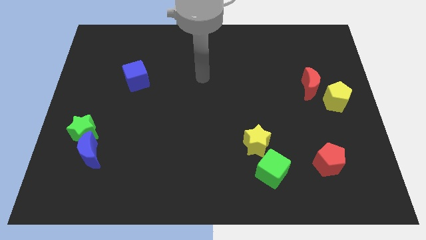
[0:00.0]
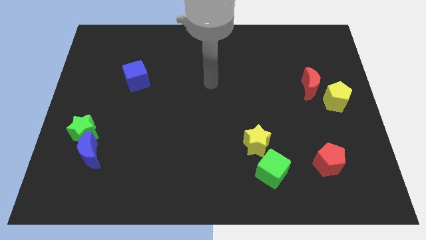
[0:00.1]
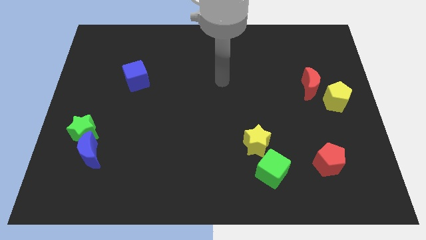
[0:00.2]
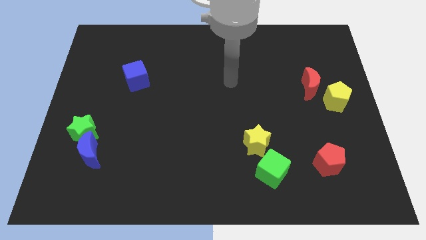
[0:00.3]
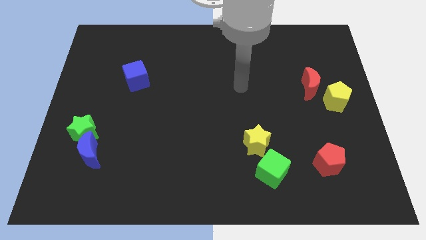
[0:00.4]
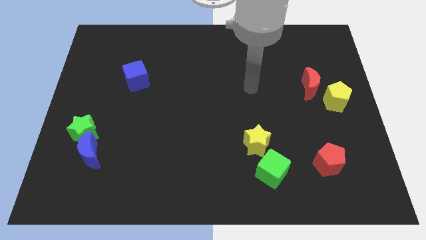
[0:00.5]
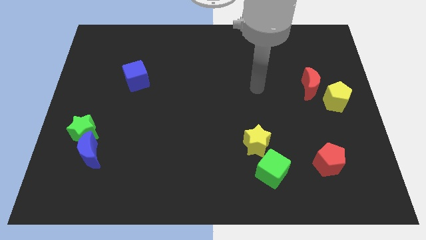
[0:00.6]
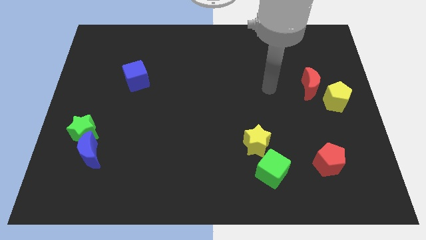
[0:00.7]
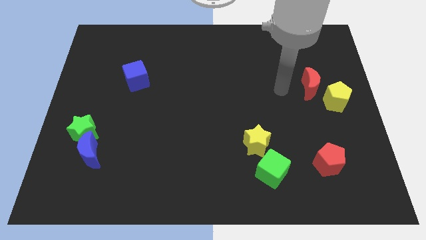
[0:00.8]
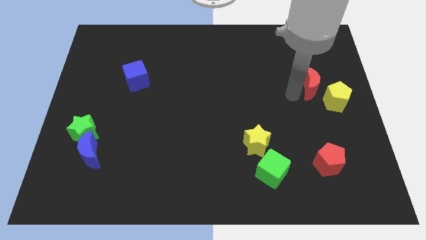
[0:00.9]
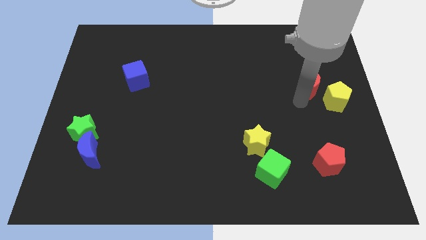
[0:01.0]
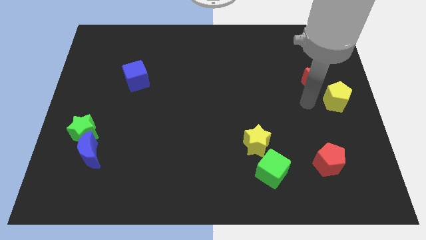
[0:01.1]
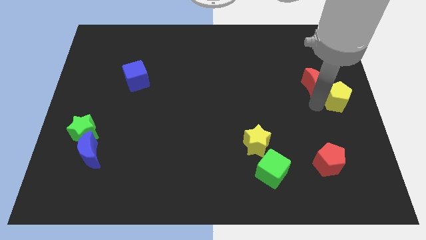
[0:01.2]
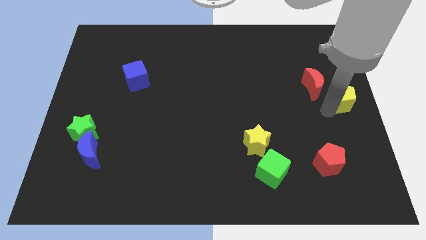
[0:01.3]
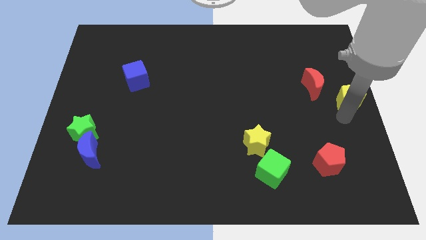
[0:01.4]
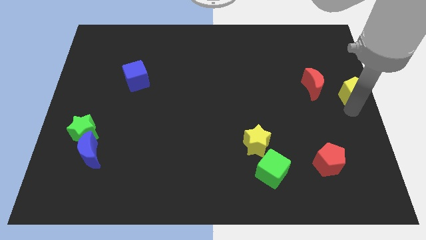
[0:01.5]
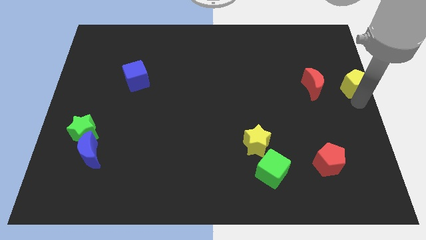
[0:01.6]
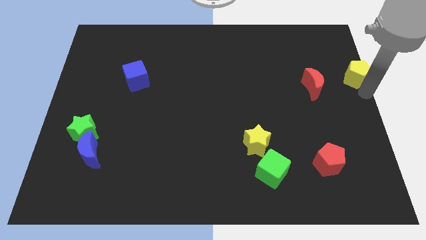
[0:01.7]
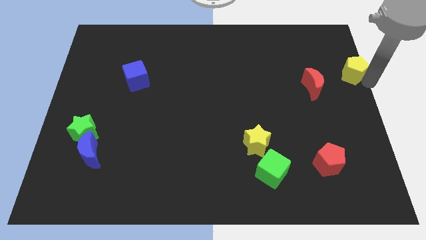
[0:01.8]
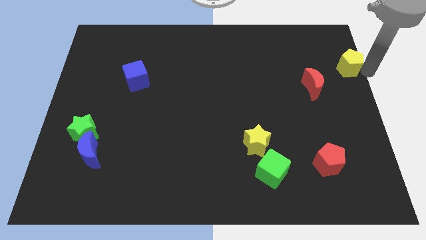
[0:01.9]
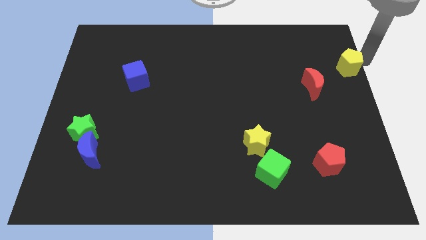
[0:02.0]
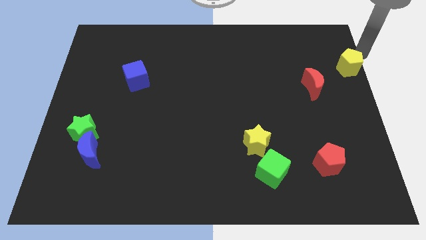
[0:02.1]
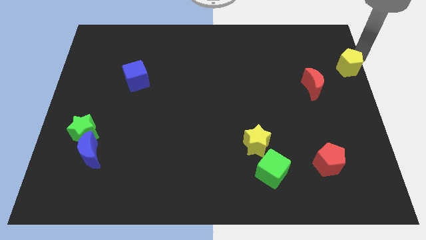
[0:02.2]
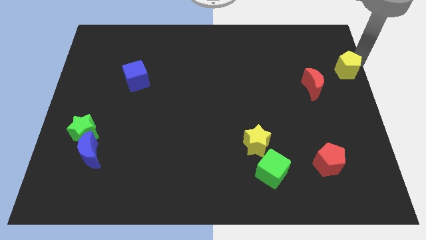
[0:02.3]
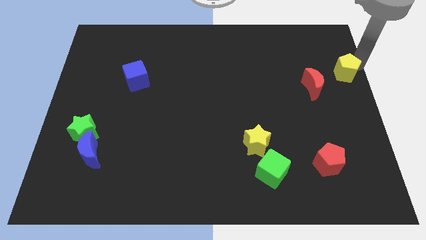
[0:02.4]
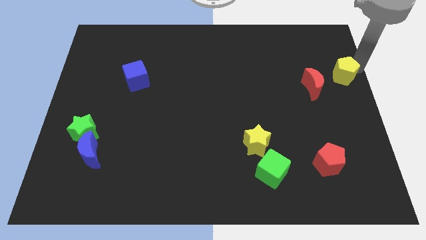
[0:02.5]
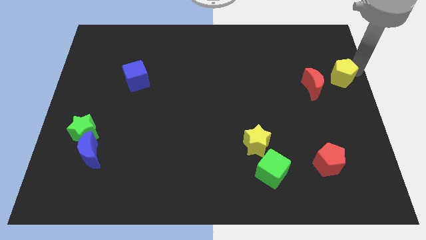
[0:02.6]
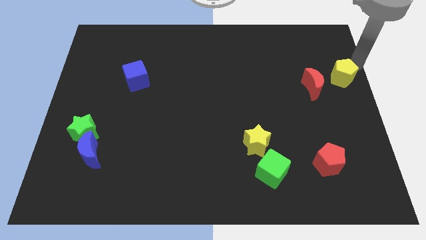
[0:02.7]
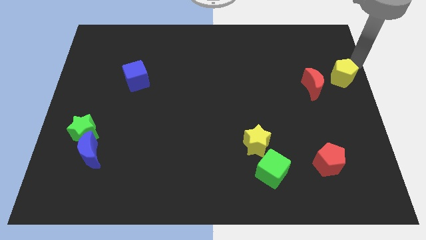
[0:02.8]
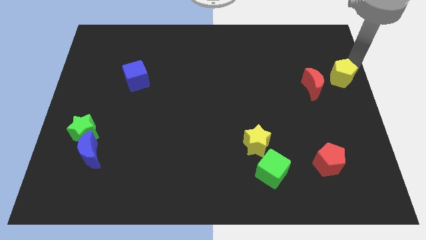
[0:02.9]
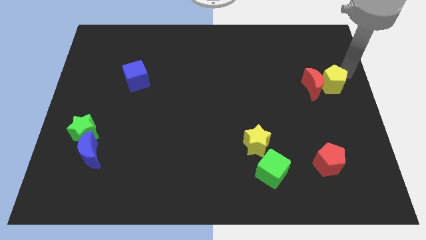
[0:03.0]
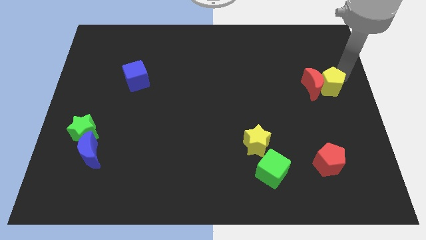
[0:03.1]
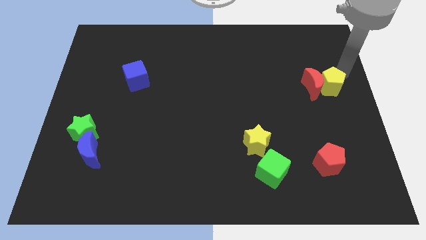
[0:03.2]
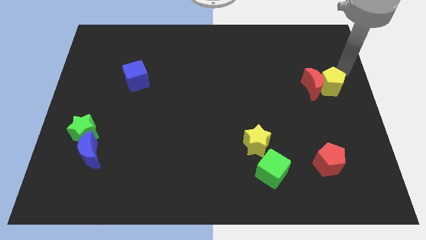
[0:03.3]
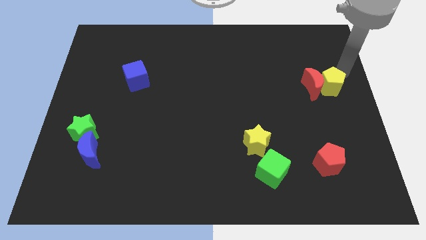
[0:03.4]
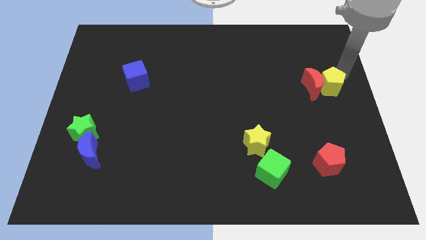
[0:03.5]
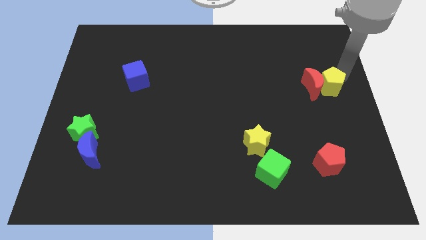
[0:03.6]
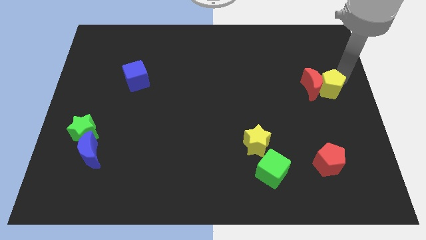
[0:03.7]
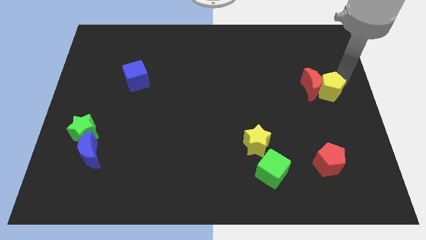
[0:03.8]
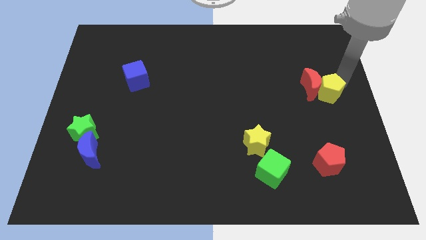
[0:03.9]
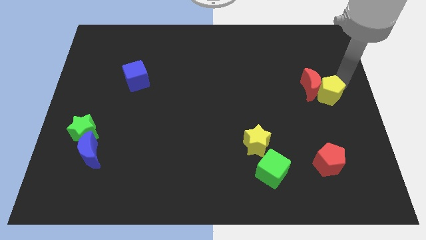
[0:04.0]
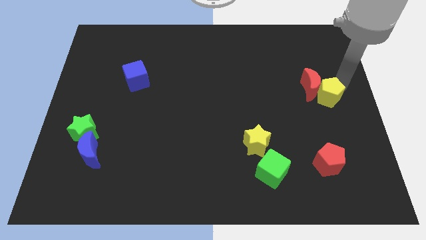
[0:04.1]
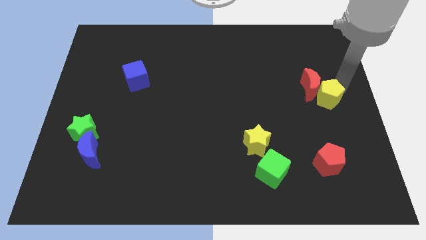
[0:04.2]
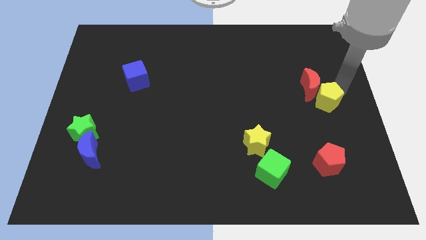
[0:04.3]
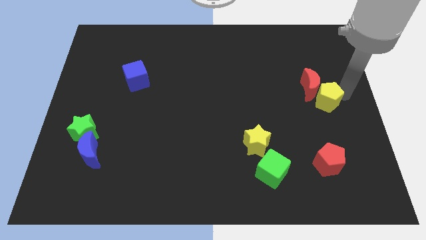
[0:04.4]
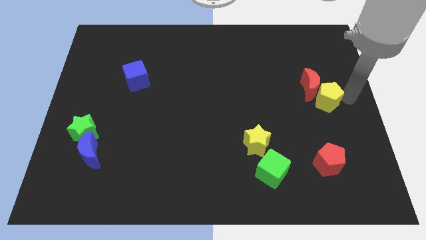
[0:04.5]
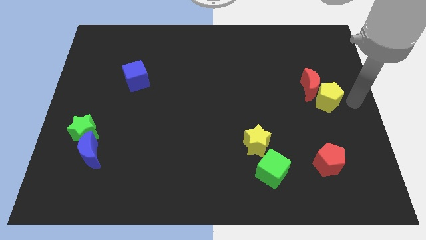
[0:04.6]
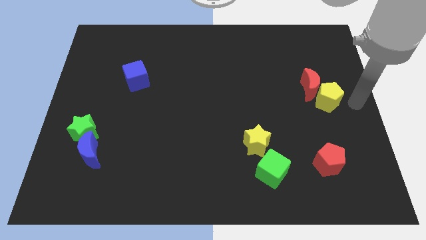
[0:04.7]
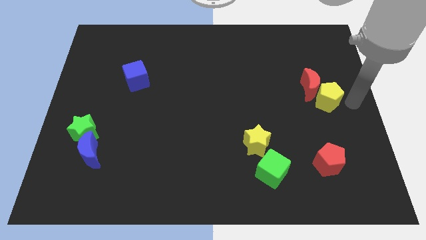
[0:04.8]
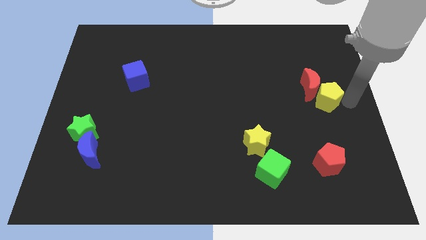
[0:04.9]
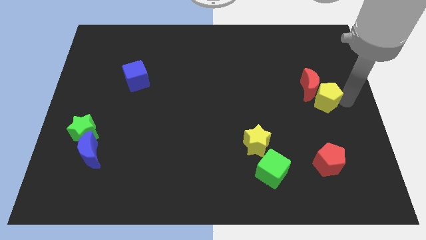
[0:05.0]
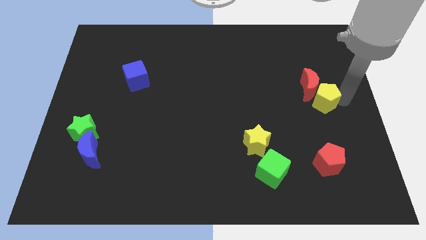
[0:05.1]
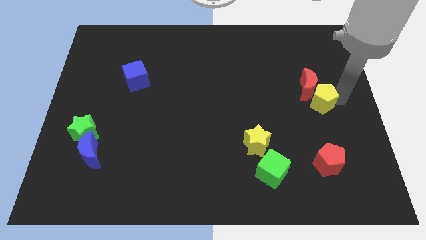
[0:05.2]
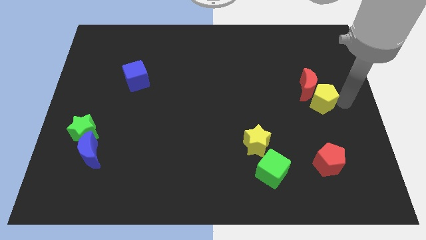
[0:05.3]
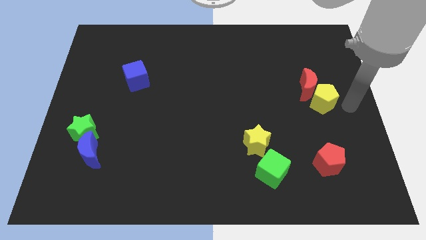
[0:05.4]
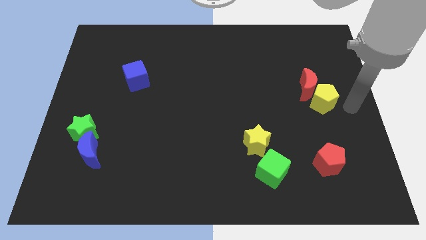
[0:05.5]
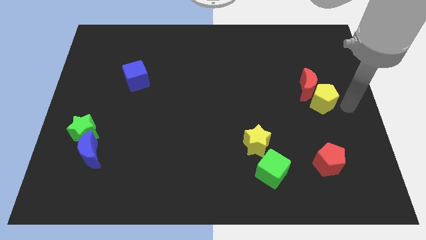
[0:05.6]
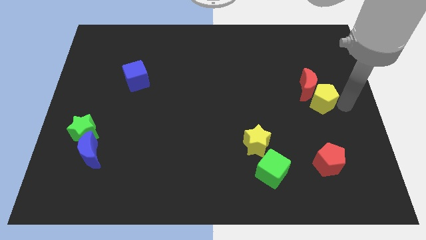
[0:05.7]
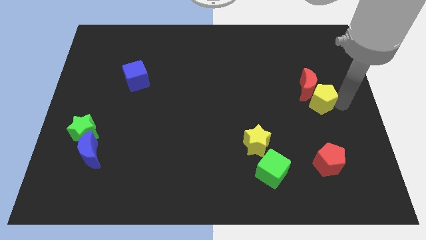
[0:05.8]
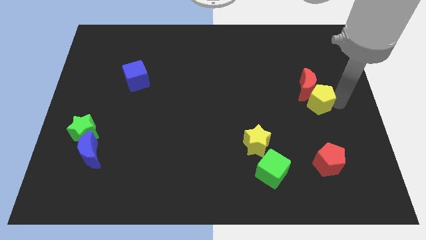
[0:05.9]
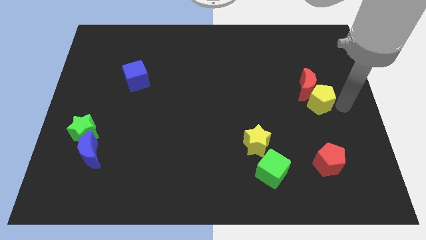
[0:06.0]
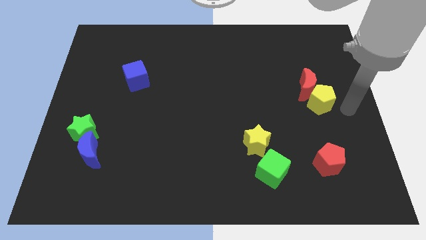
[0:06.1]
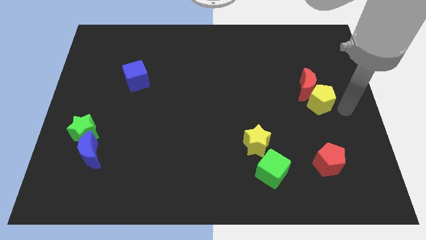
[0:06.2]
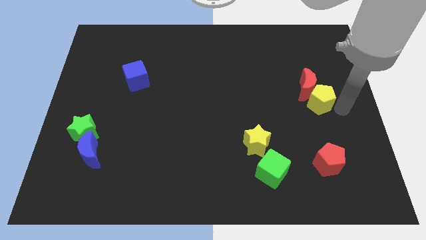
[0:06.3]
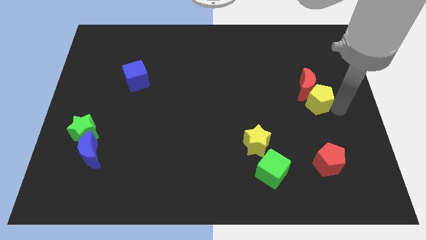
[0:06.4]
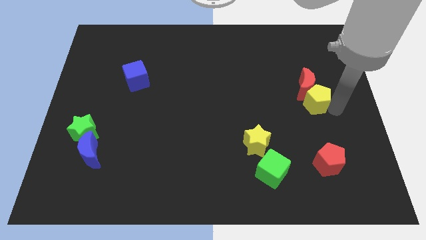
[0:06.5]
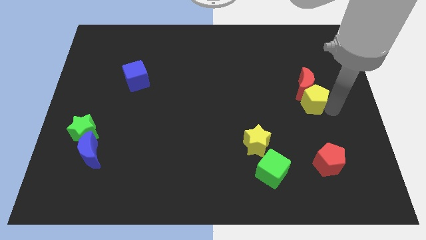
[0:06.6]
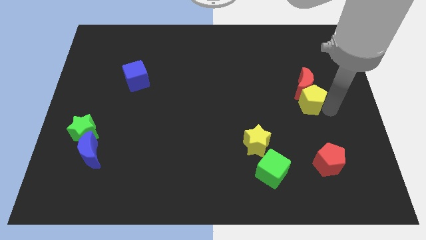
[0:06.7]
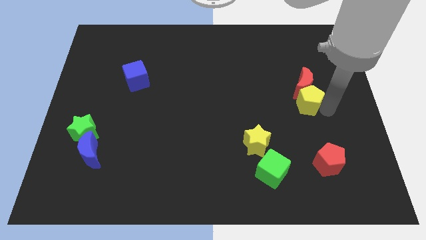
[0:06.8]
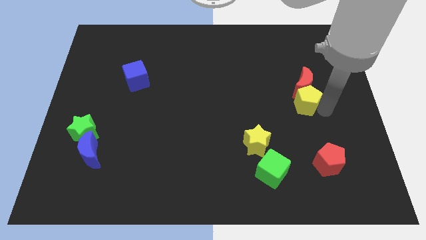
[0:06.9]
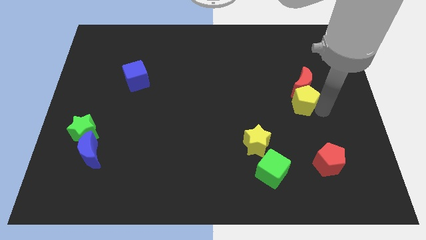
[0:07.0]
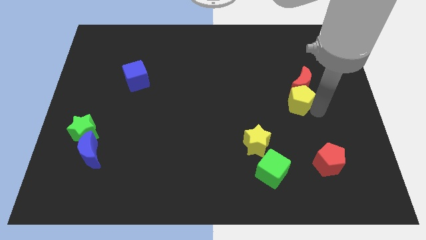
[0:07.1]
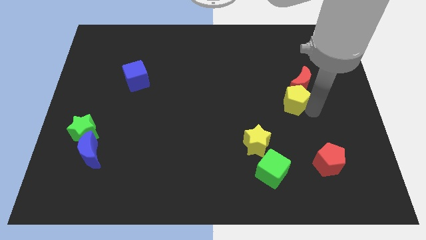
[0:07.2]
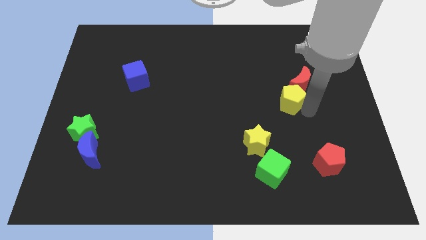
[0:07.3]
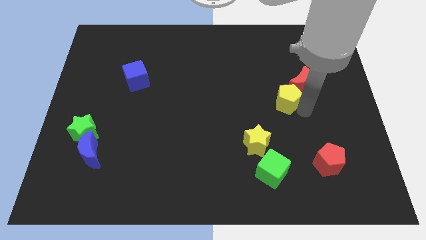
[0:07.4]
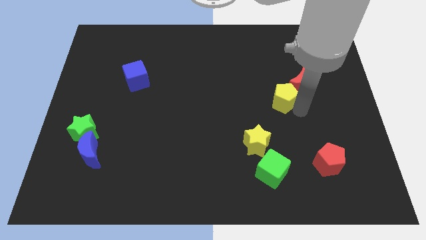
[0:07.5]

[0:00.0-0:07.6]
move the yellow pentagon to the left of the red moon
